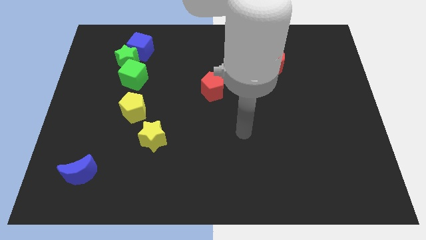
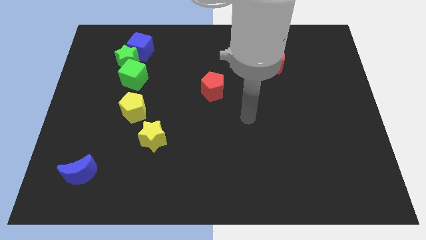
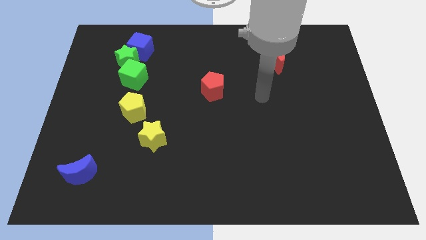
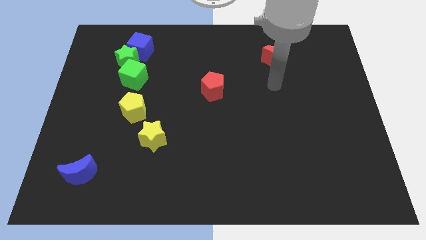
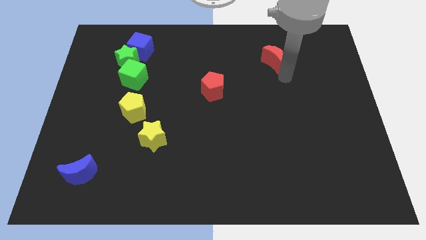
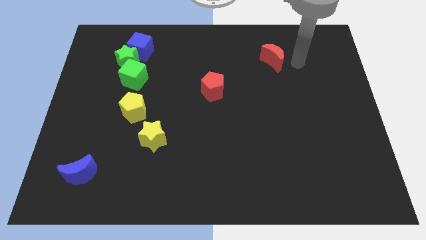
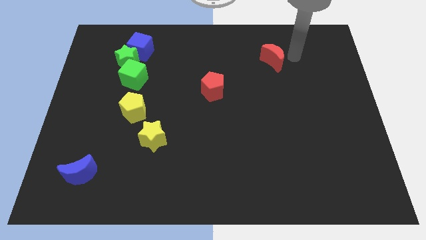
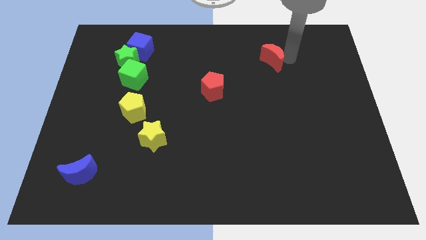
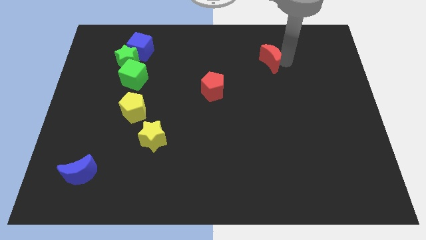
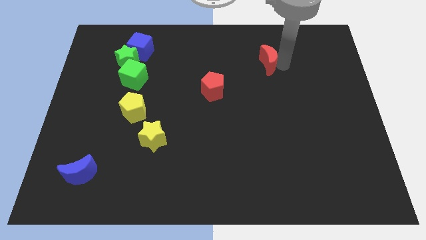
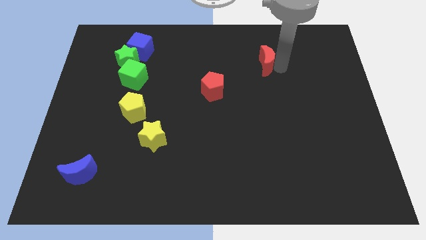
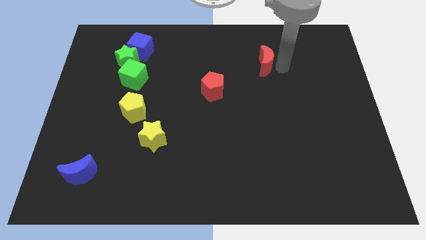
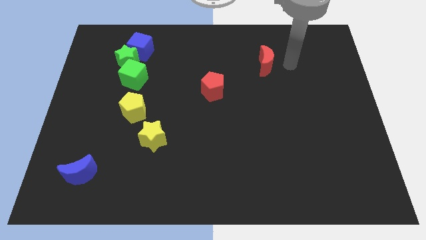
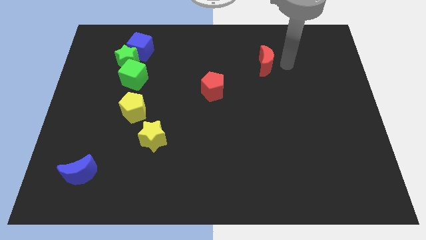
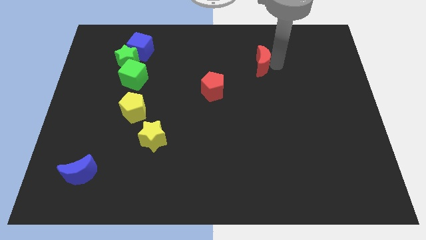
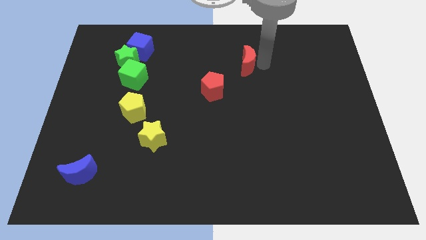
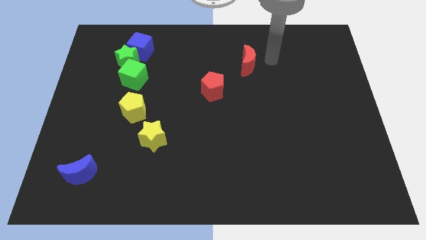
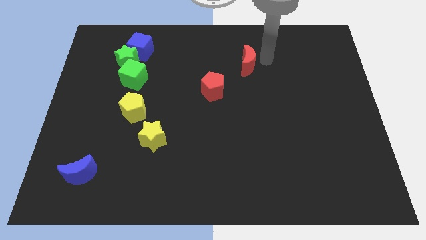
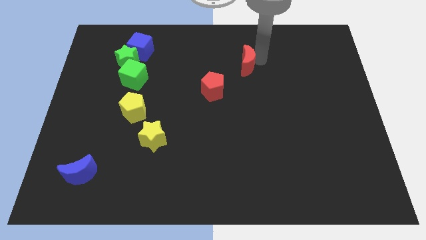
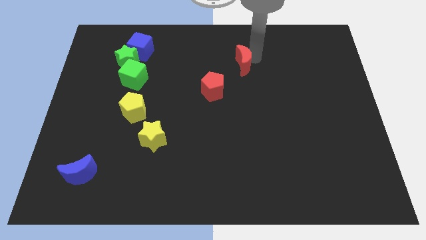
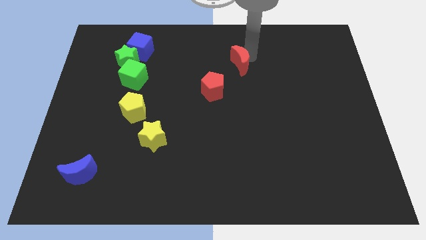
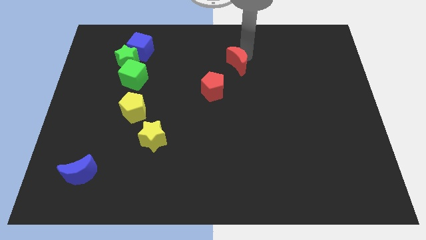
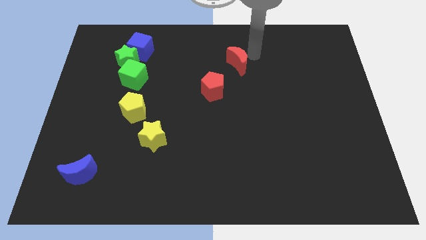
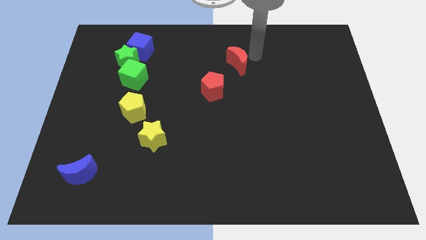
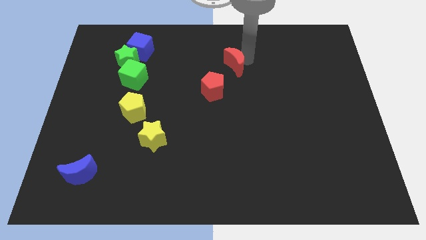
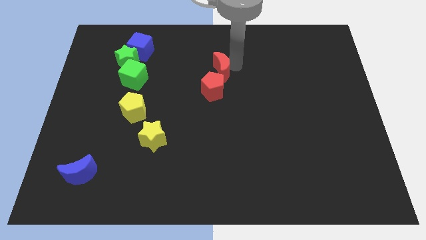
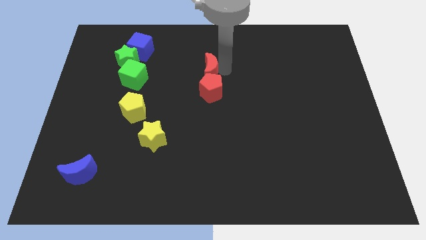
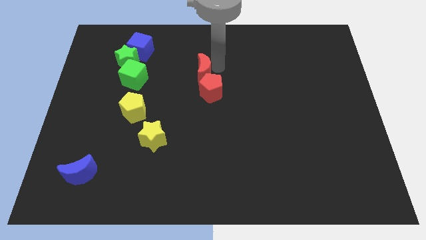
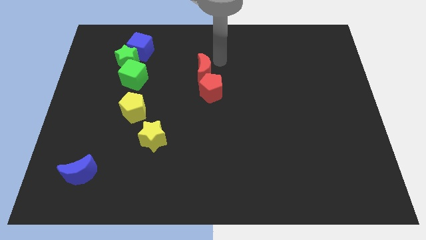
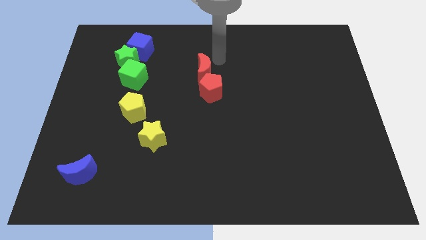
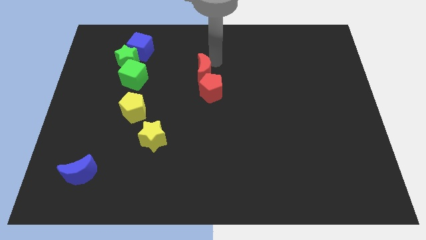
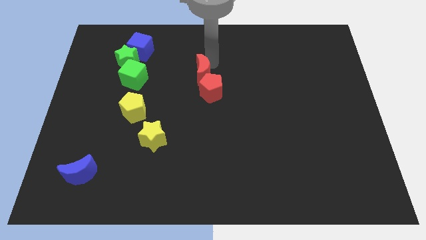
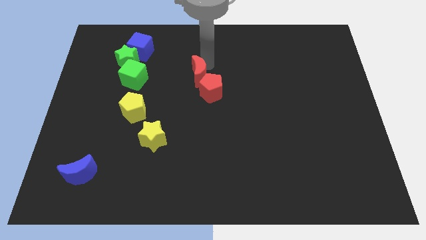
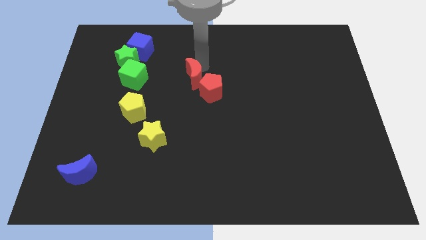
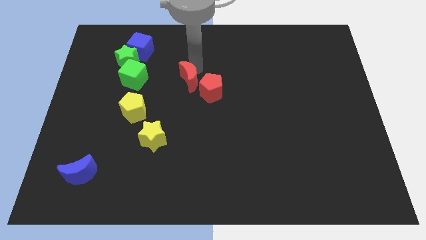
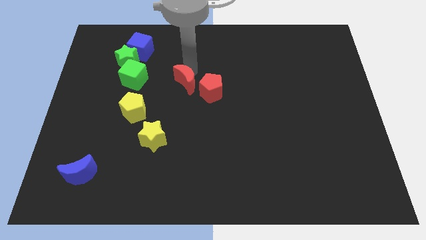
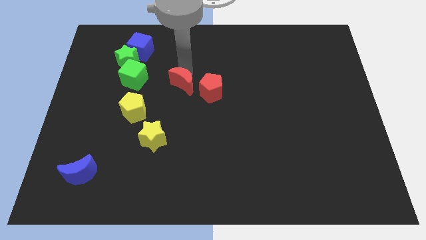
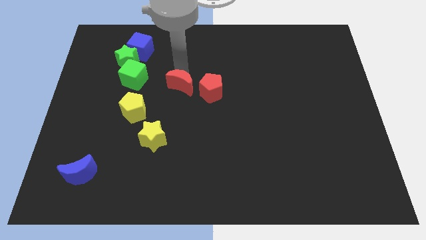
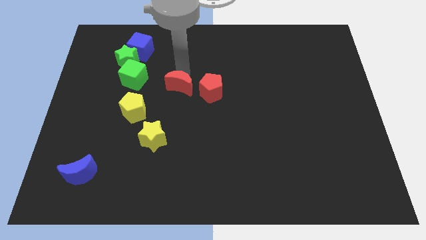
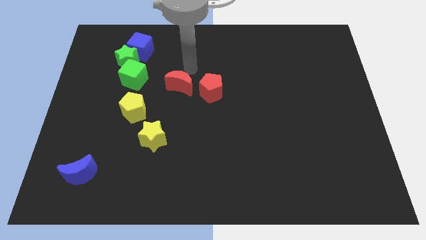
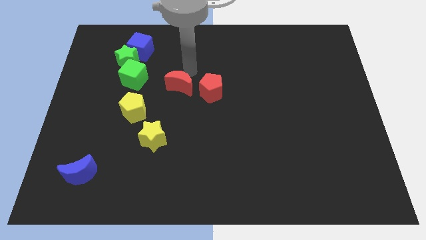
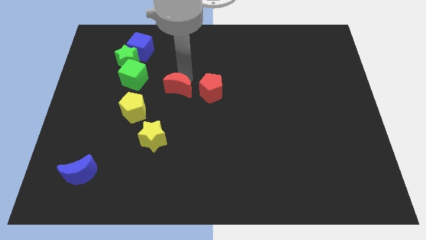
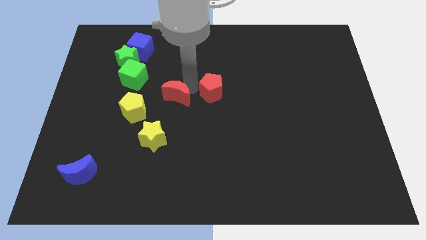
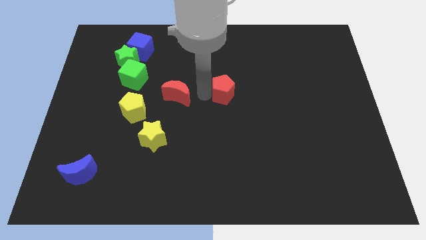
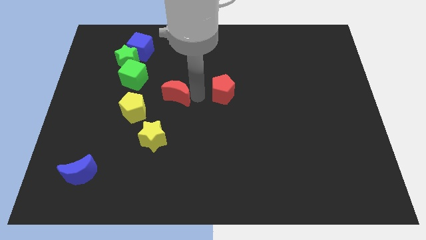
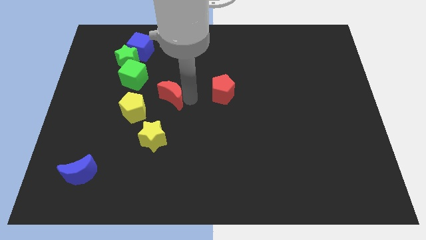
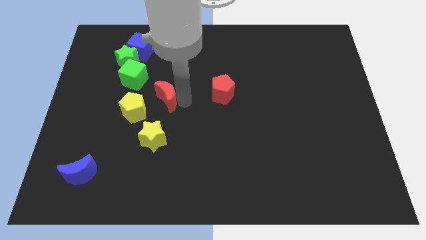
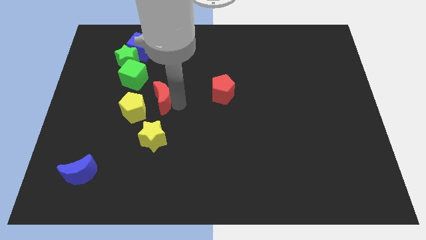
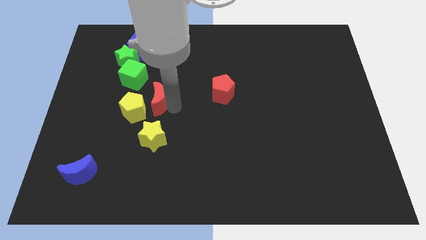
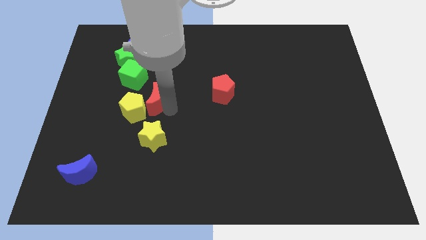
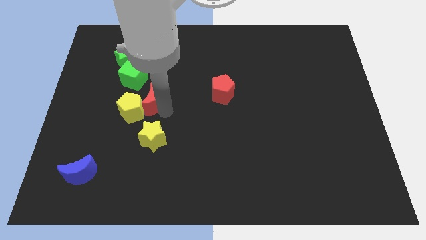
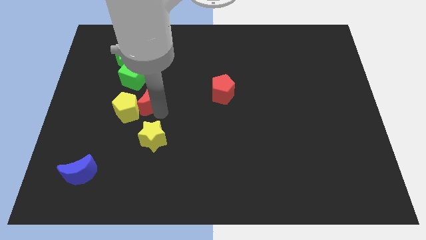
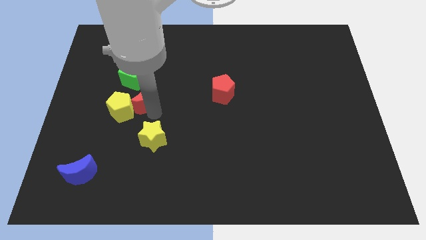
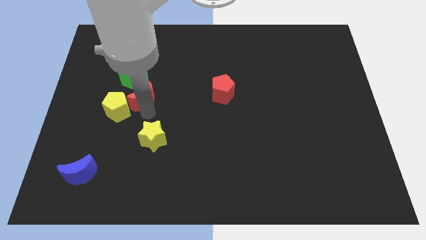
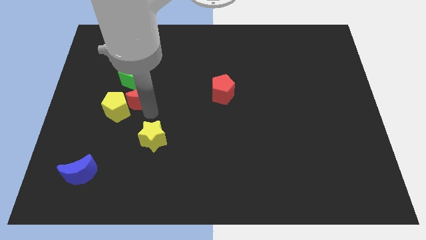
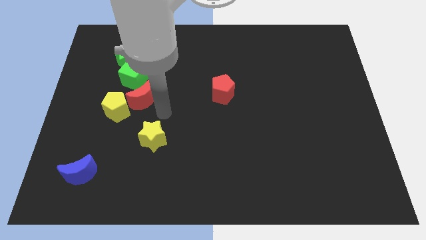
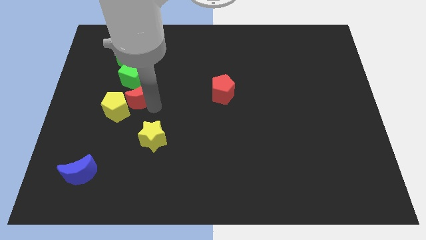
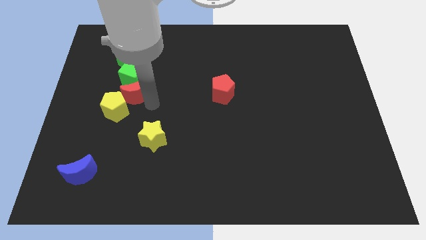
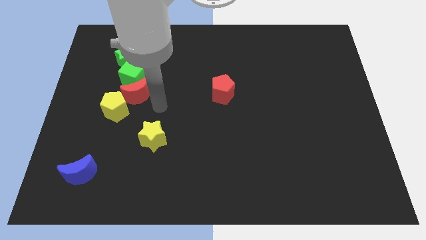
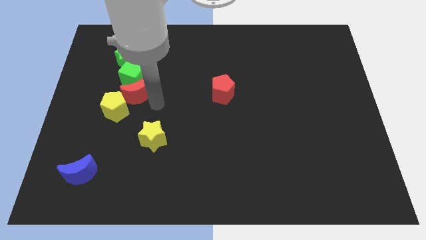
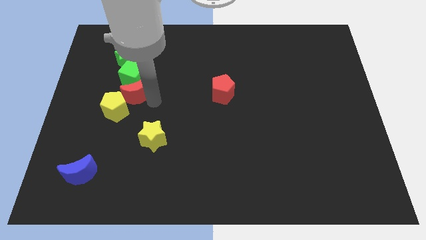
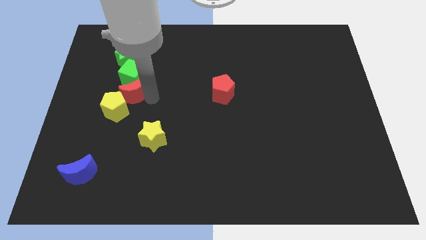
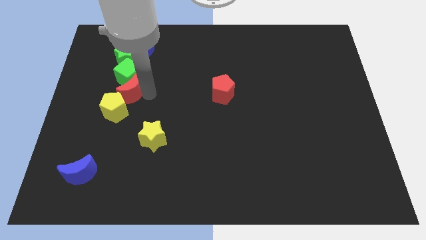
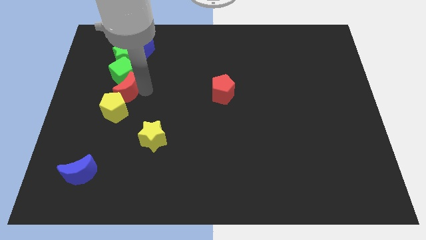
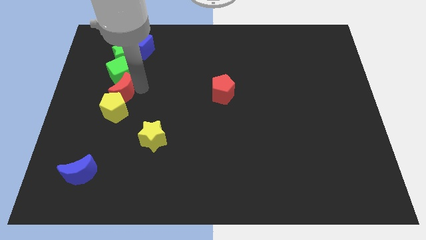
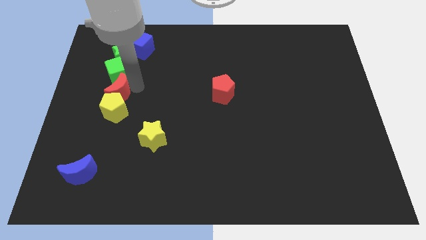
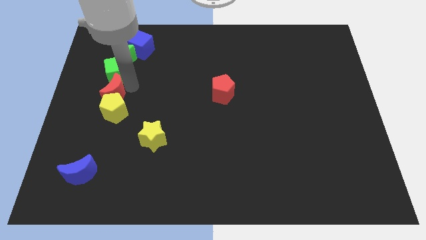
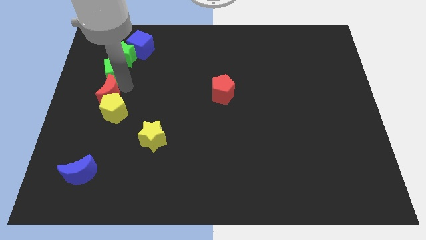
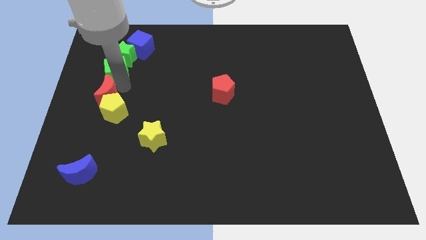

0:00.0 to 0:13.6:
move the red moon to the center left
